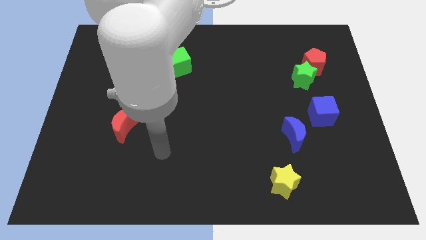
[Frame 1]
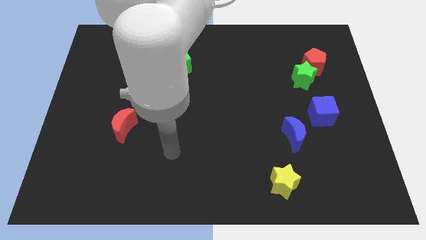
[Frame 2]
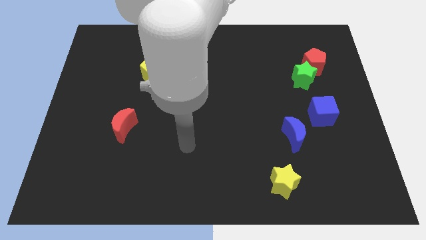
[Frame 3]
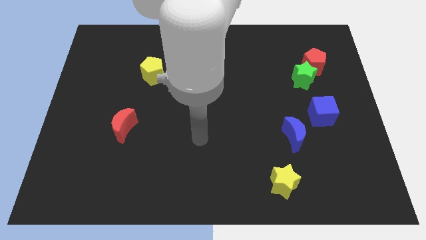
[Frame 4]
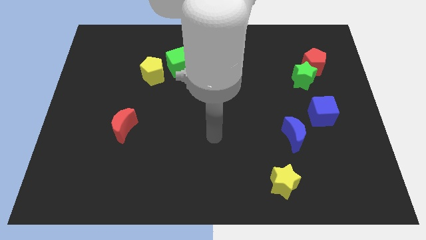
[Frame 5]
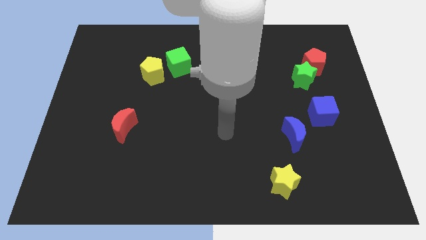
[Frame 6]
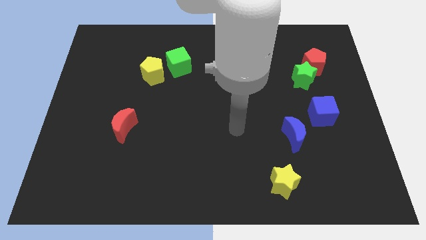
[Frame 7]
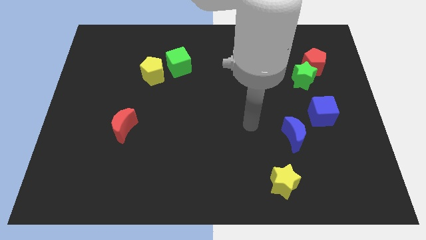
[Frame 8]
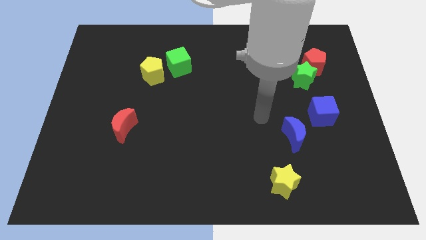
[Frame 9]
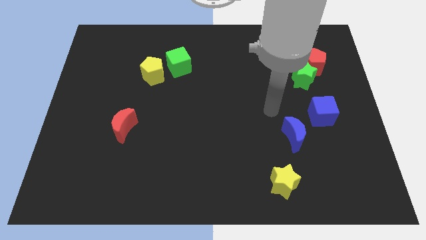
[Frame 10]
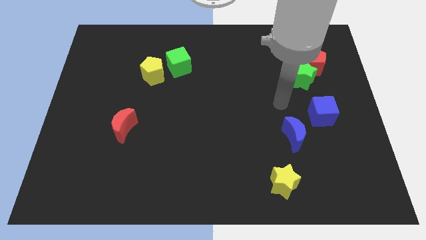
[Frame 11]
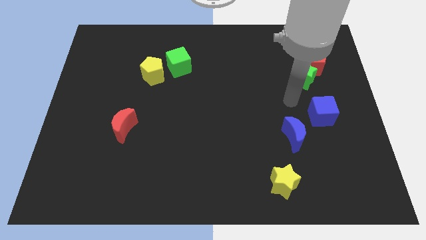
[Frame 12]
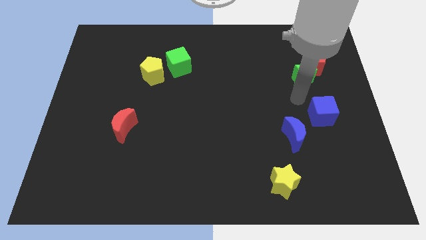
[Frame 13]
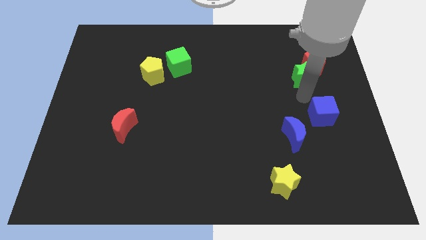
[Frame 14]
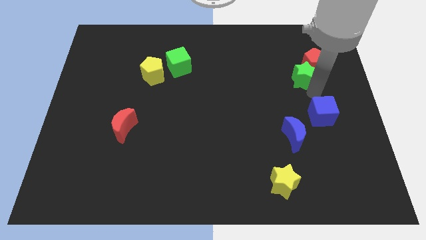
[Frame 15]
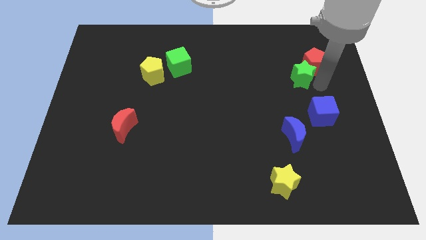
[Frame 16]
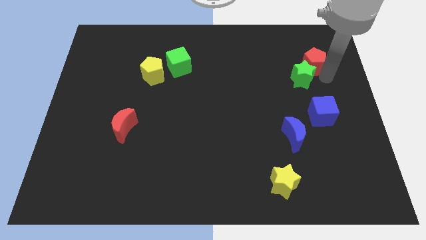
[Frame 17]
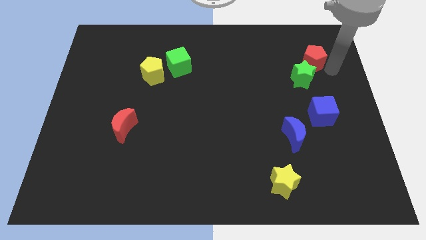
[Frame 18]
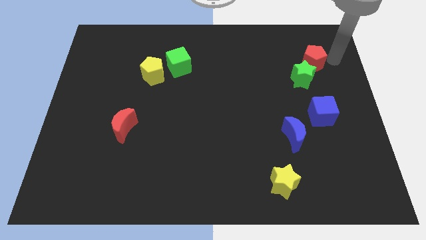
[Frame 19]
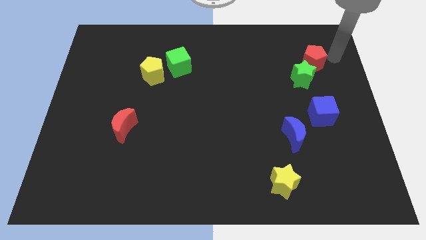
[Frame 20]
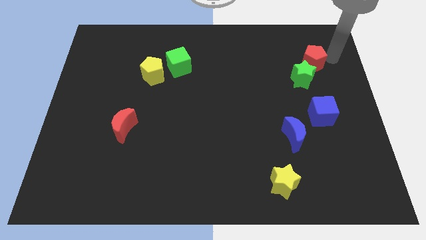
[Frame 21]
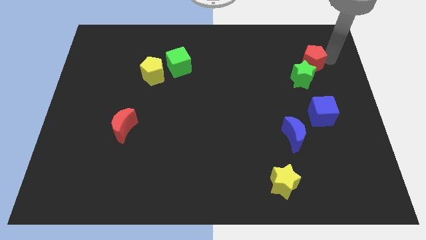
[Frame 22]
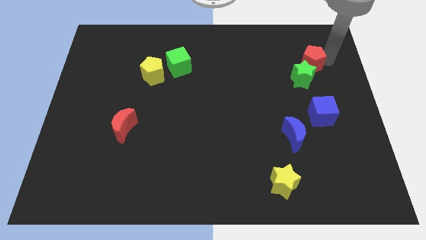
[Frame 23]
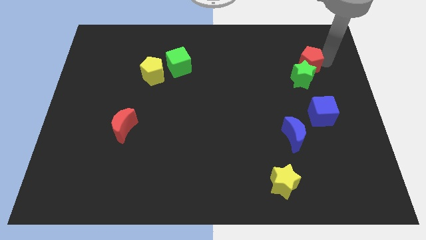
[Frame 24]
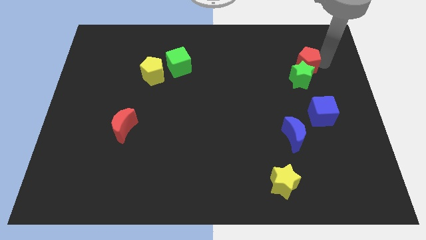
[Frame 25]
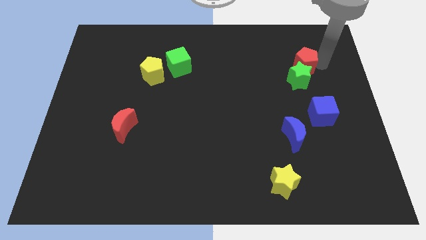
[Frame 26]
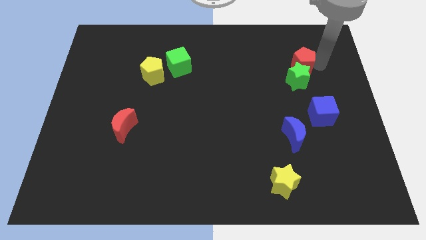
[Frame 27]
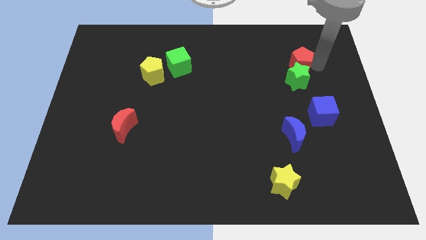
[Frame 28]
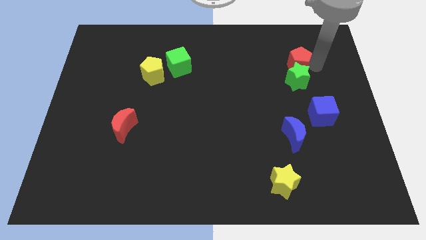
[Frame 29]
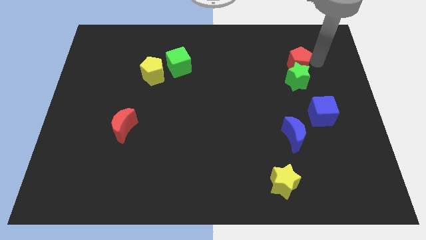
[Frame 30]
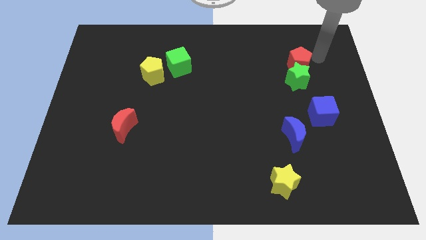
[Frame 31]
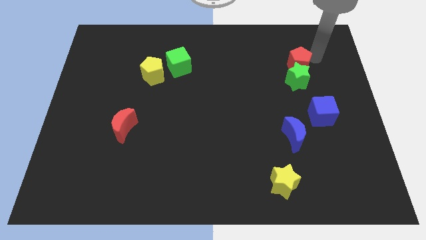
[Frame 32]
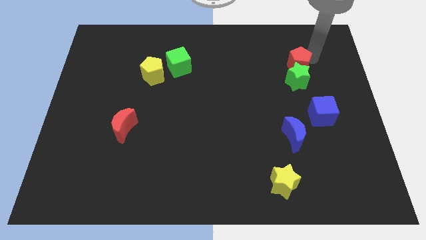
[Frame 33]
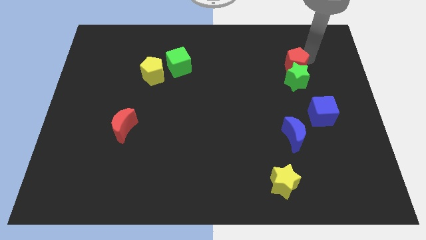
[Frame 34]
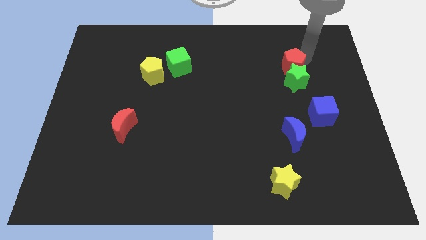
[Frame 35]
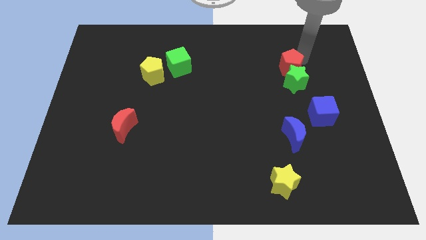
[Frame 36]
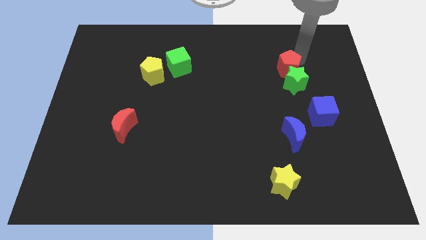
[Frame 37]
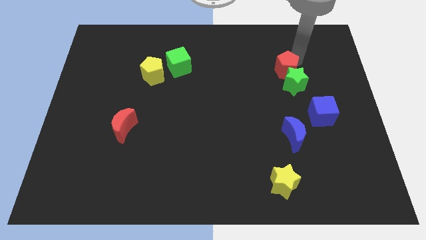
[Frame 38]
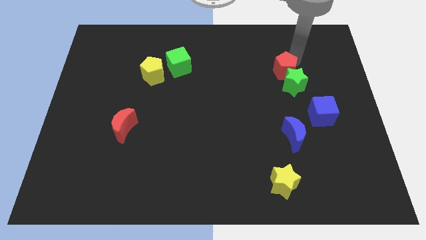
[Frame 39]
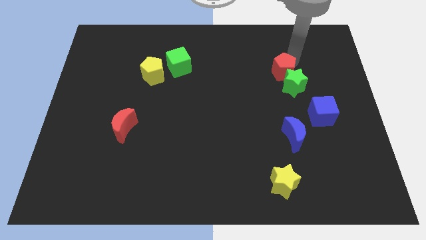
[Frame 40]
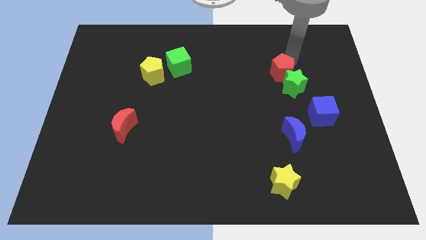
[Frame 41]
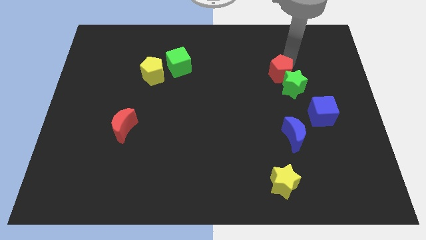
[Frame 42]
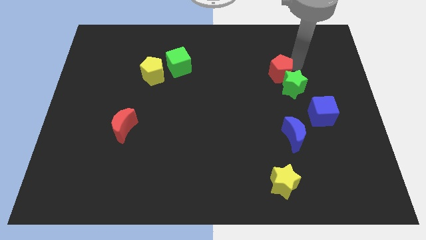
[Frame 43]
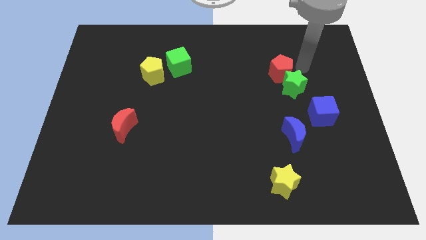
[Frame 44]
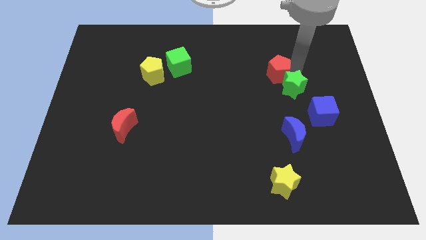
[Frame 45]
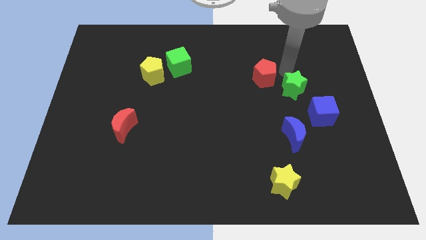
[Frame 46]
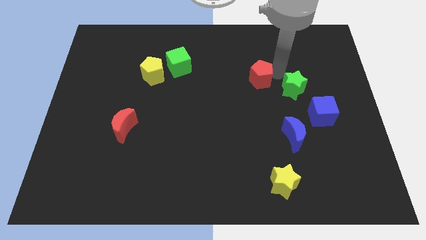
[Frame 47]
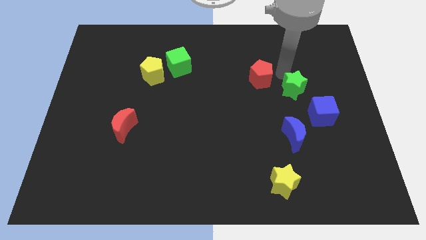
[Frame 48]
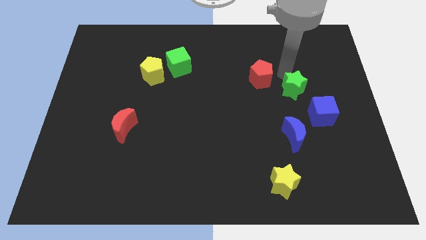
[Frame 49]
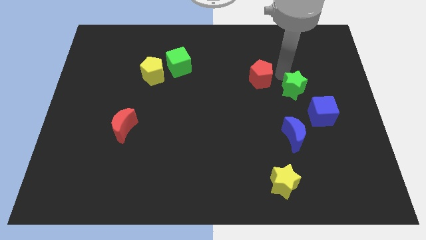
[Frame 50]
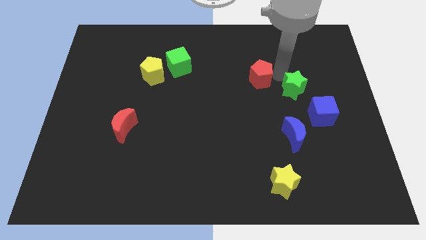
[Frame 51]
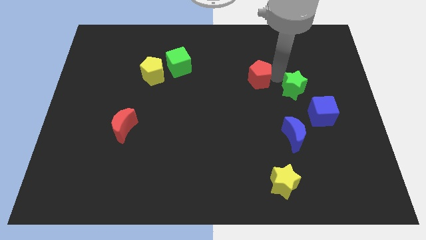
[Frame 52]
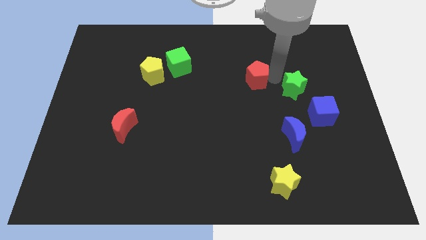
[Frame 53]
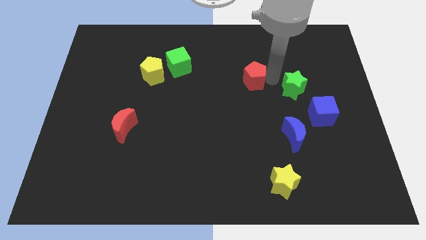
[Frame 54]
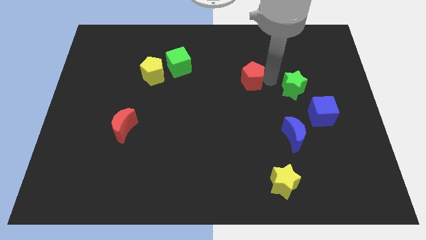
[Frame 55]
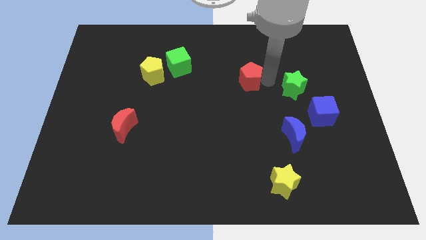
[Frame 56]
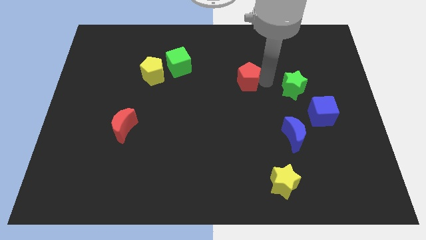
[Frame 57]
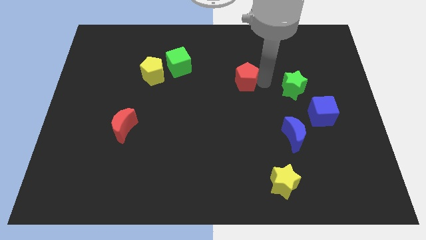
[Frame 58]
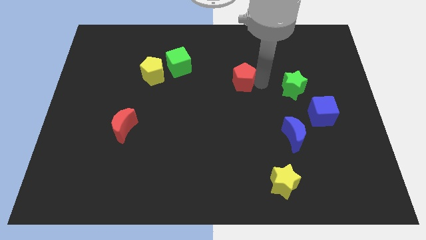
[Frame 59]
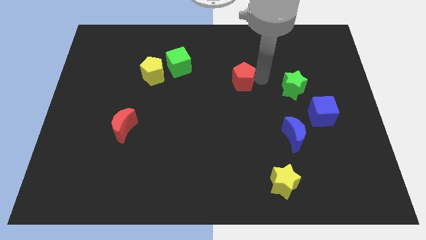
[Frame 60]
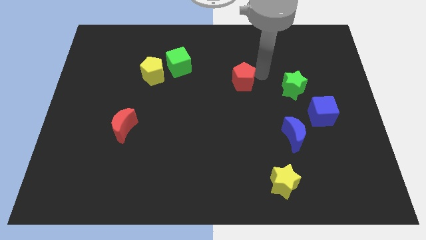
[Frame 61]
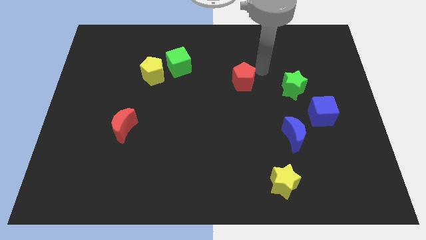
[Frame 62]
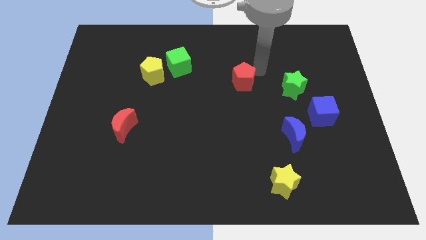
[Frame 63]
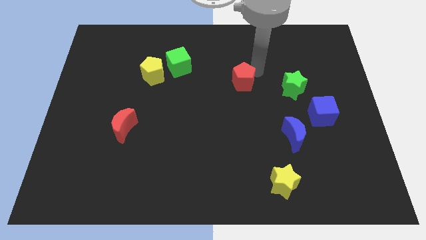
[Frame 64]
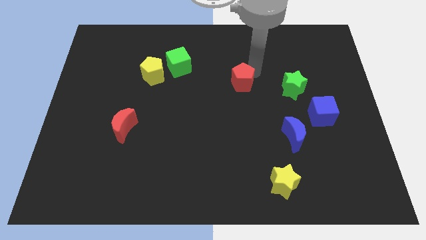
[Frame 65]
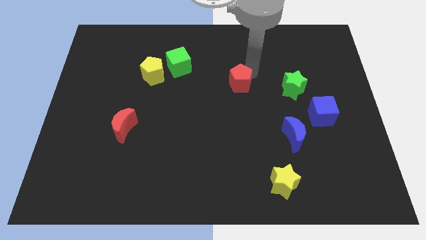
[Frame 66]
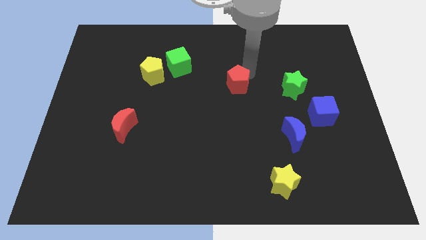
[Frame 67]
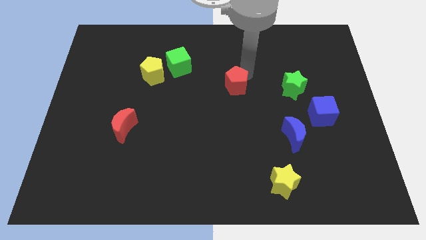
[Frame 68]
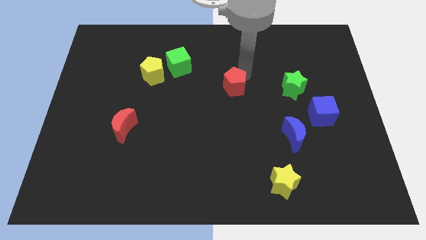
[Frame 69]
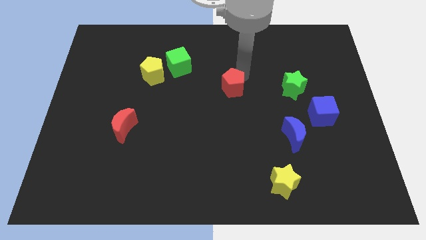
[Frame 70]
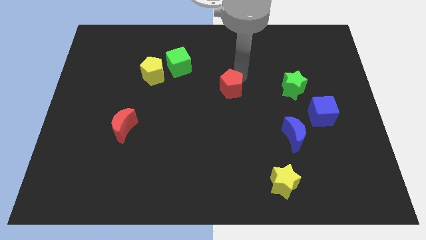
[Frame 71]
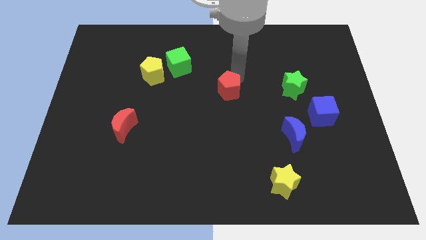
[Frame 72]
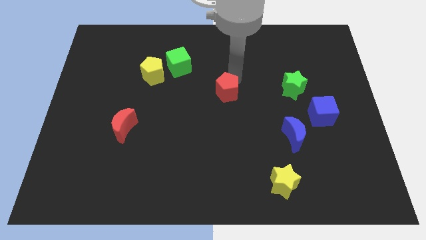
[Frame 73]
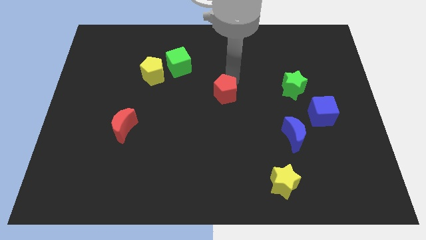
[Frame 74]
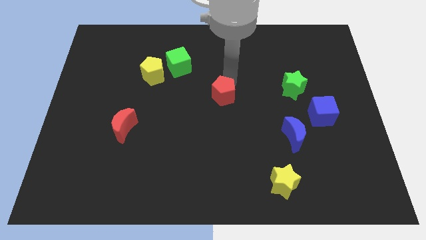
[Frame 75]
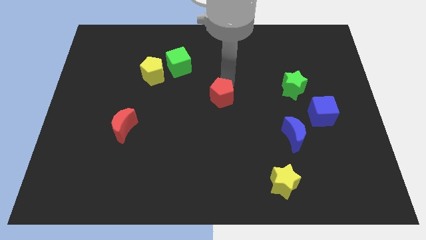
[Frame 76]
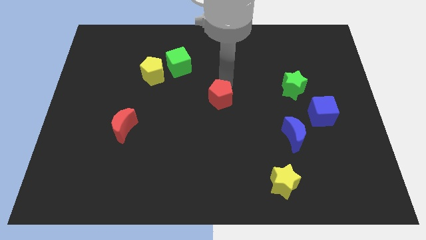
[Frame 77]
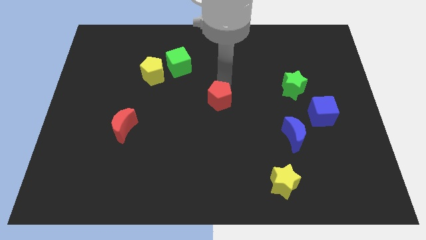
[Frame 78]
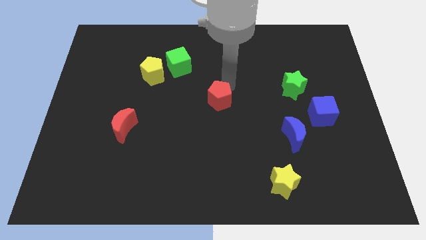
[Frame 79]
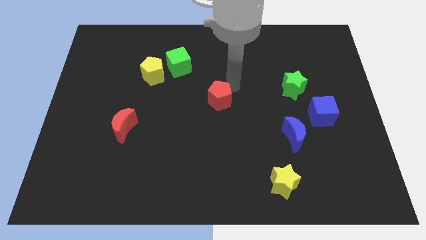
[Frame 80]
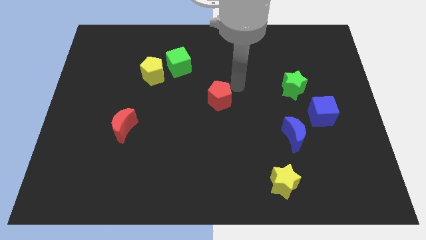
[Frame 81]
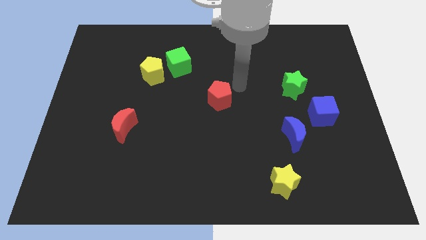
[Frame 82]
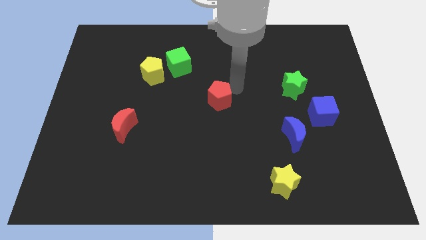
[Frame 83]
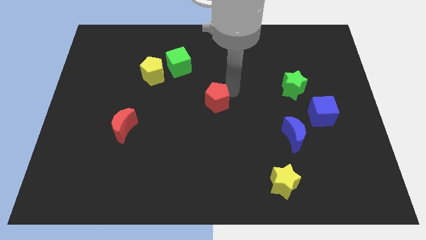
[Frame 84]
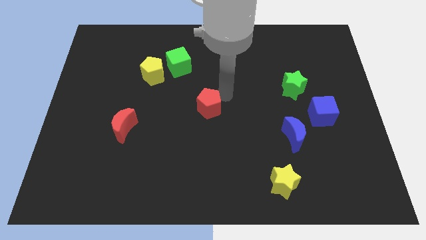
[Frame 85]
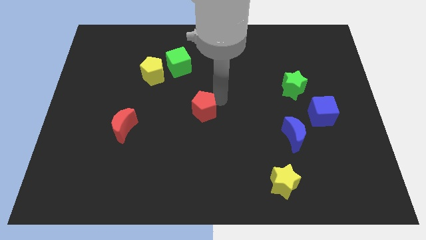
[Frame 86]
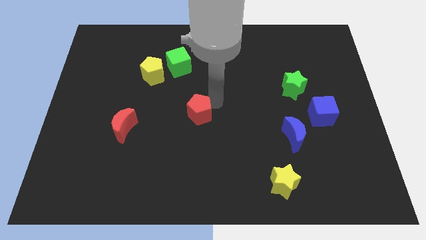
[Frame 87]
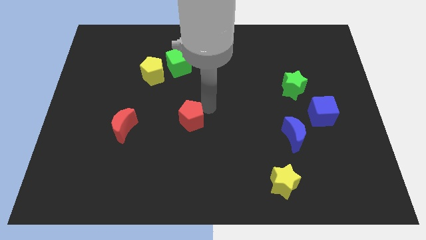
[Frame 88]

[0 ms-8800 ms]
move the red pentagon to the right side of the red moon
